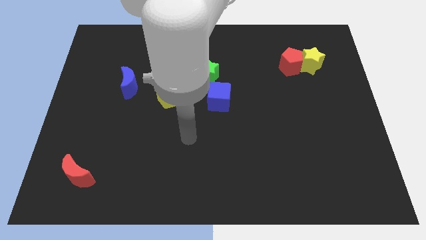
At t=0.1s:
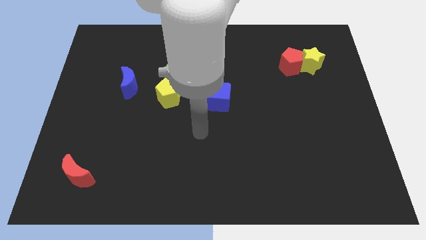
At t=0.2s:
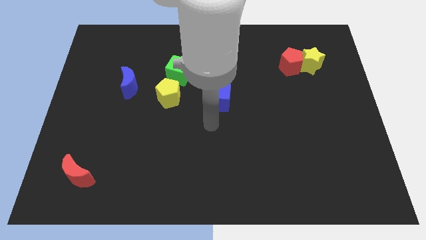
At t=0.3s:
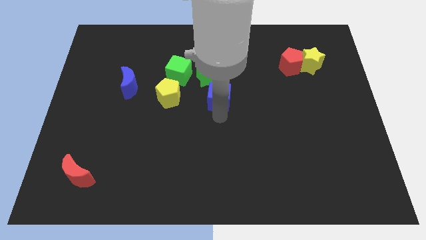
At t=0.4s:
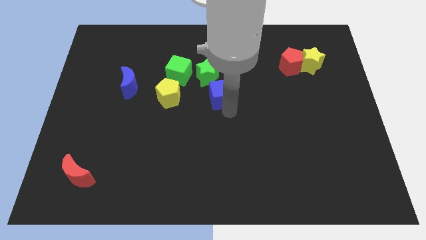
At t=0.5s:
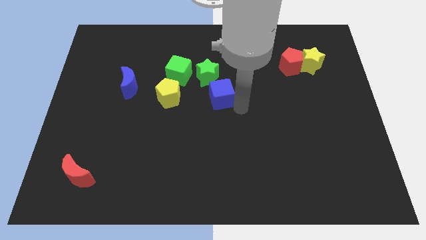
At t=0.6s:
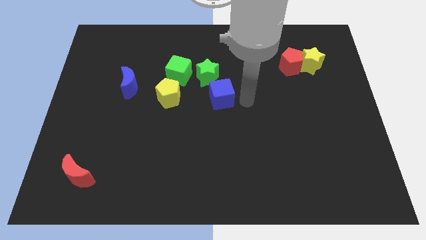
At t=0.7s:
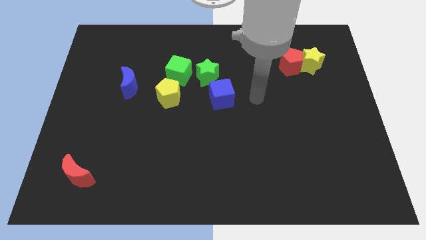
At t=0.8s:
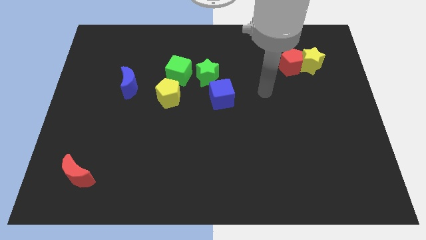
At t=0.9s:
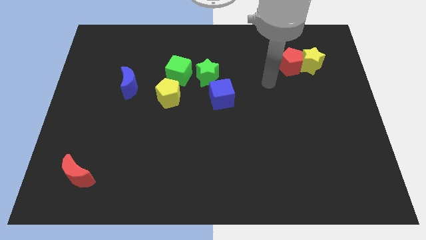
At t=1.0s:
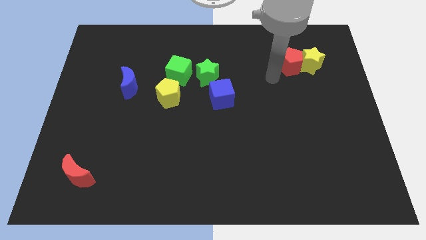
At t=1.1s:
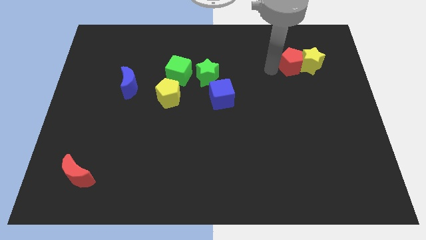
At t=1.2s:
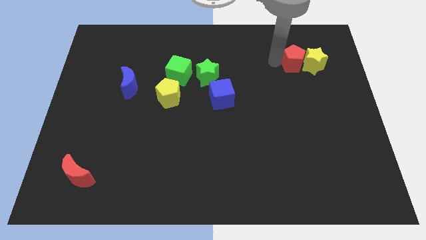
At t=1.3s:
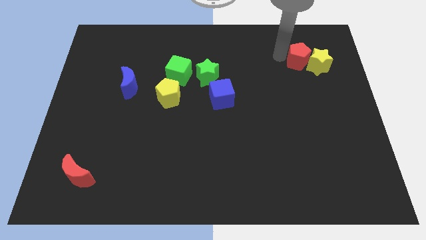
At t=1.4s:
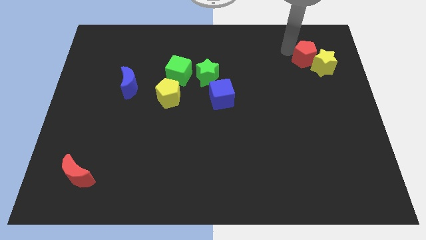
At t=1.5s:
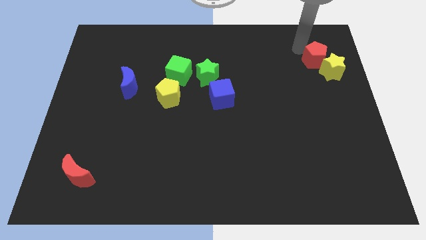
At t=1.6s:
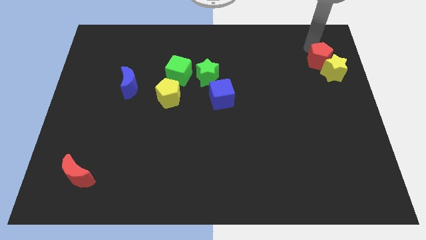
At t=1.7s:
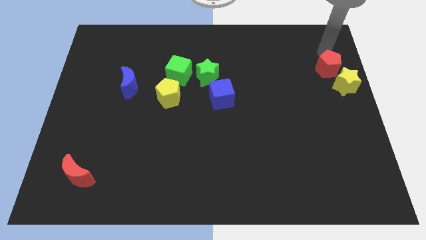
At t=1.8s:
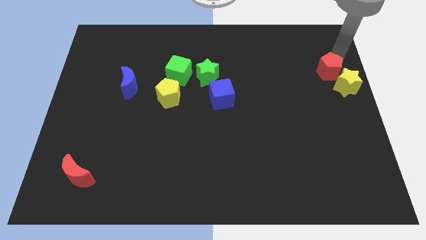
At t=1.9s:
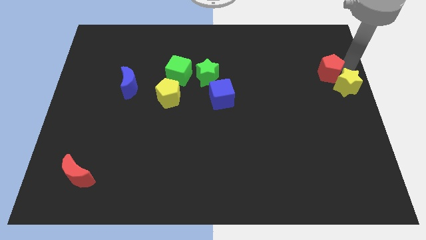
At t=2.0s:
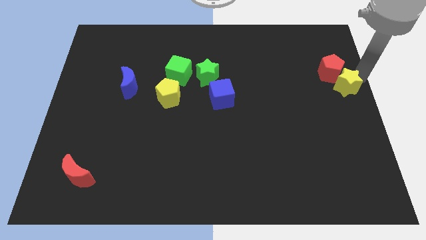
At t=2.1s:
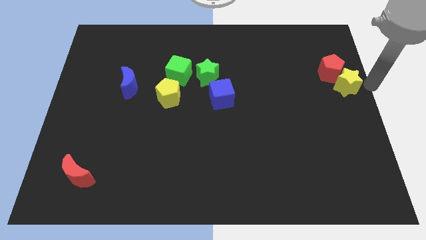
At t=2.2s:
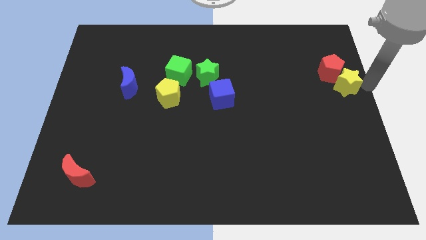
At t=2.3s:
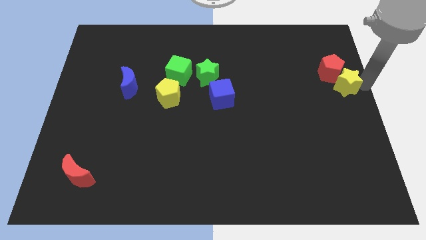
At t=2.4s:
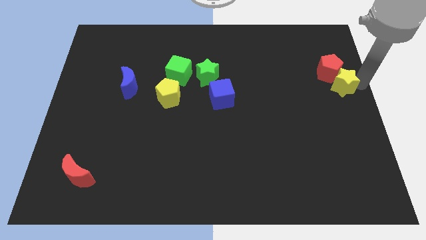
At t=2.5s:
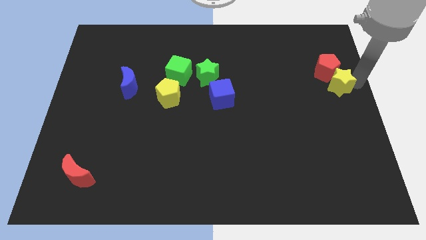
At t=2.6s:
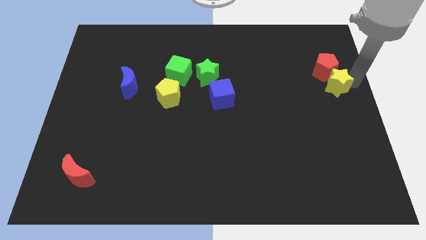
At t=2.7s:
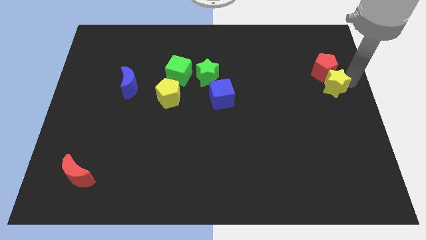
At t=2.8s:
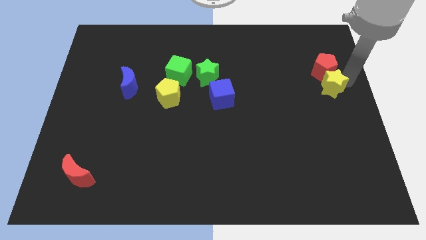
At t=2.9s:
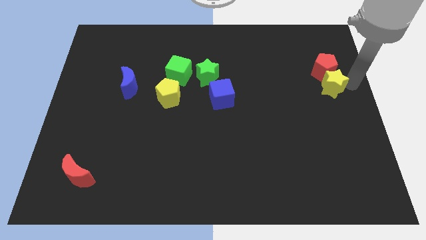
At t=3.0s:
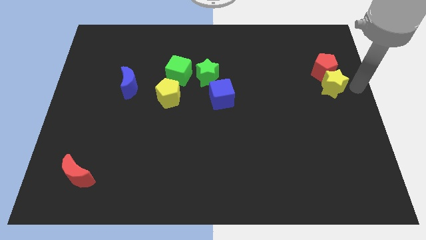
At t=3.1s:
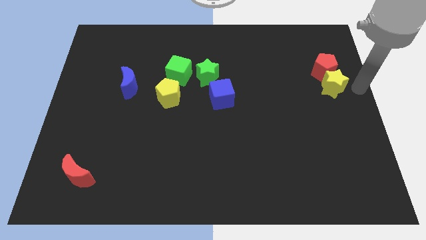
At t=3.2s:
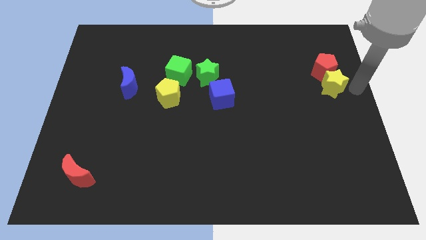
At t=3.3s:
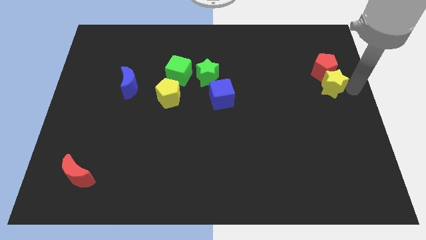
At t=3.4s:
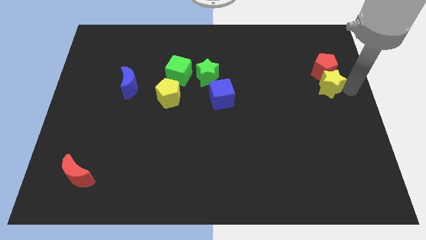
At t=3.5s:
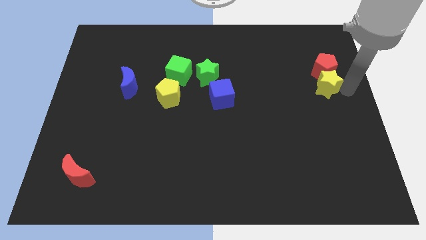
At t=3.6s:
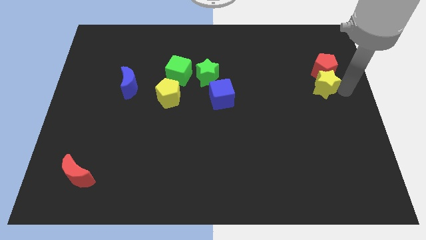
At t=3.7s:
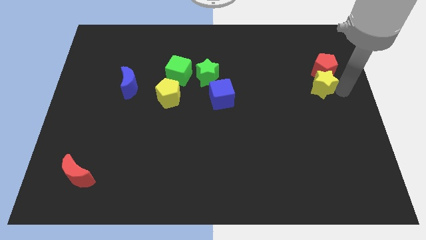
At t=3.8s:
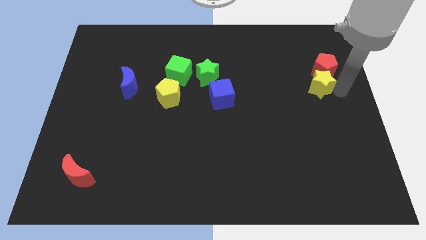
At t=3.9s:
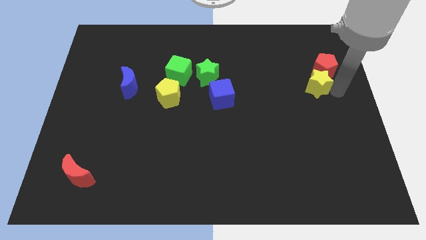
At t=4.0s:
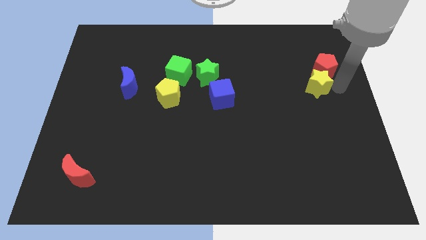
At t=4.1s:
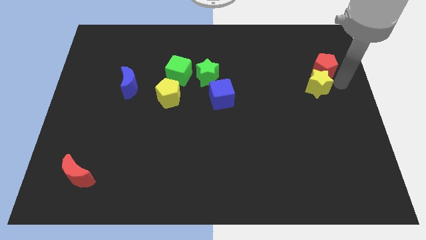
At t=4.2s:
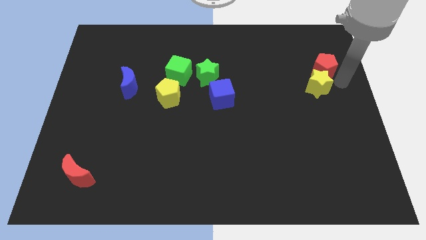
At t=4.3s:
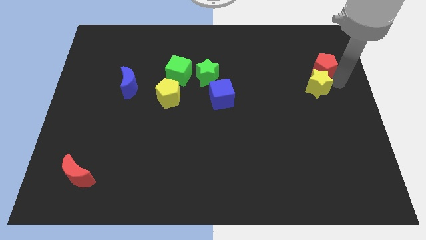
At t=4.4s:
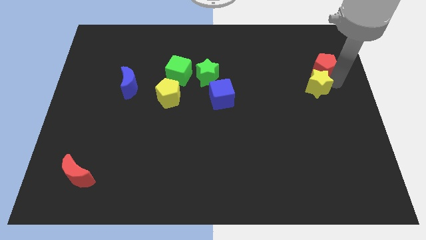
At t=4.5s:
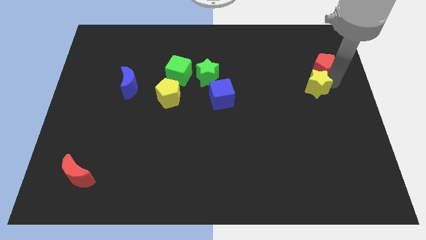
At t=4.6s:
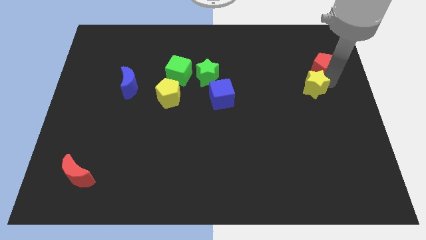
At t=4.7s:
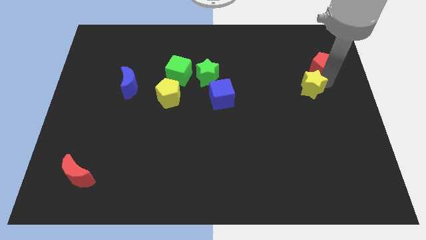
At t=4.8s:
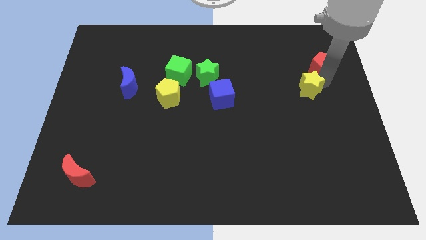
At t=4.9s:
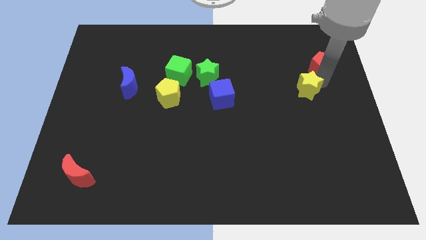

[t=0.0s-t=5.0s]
slide the yellow star a bit down and left

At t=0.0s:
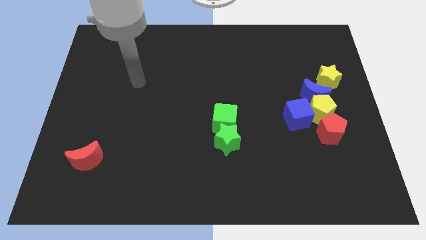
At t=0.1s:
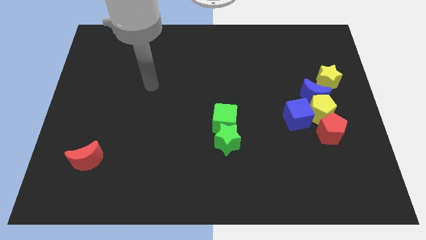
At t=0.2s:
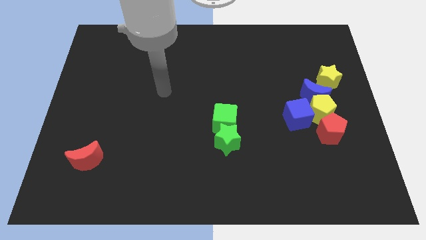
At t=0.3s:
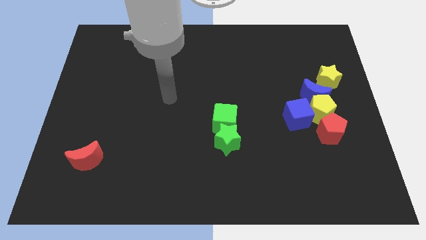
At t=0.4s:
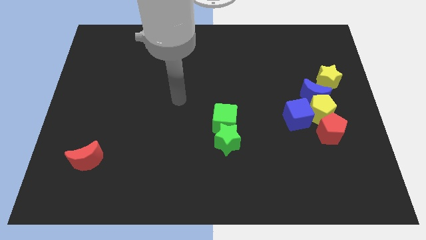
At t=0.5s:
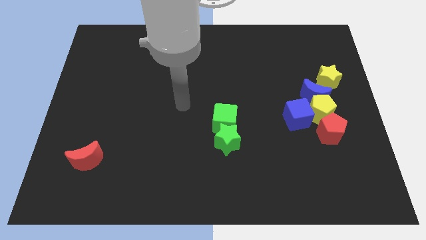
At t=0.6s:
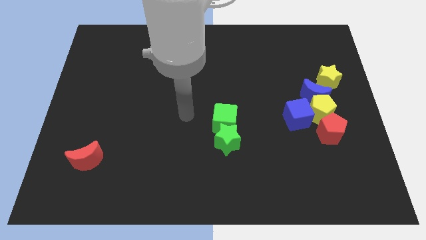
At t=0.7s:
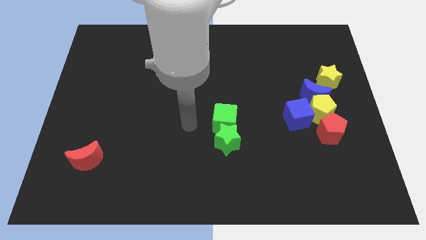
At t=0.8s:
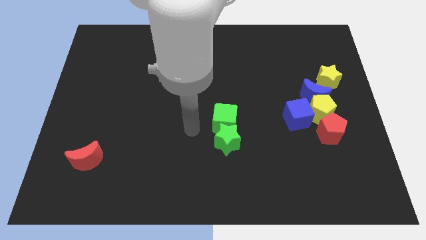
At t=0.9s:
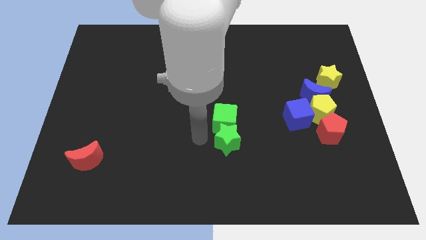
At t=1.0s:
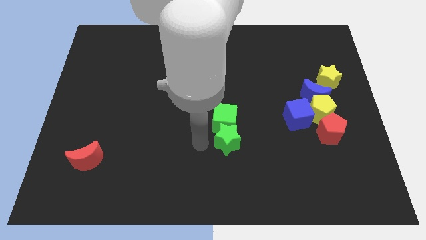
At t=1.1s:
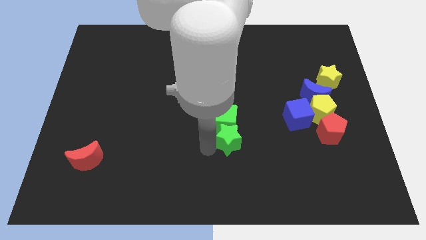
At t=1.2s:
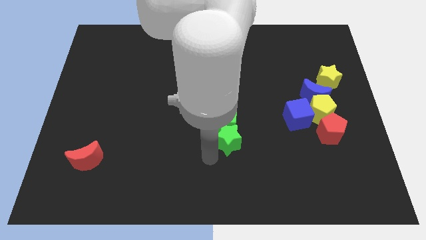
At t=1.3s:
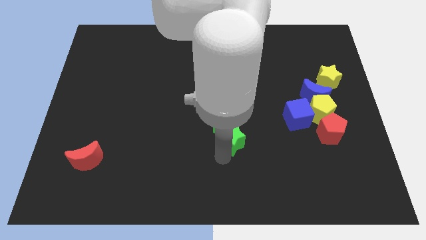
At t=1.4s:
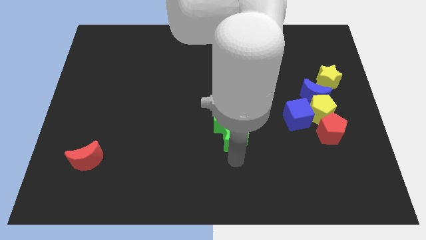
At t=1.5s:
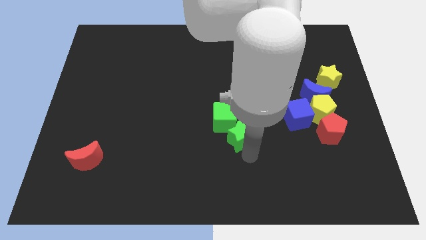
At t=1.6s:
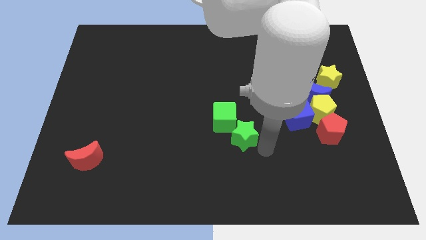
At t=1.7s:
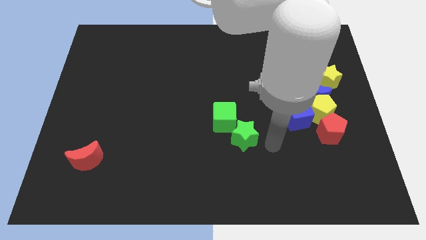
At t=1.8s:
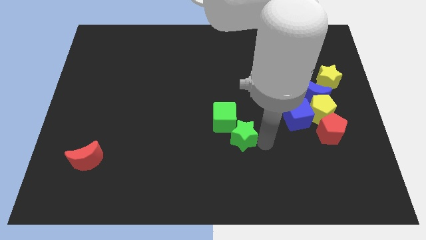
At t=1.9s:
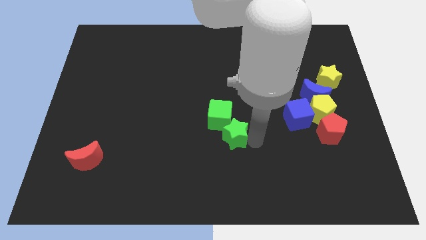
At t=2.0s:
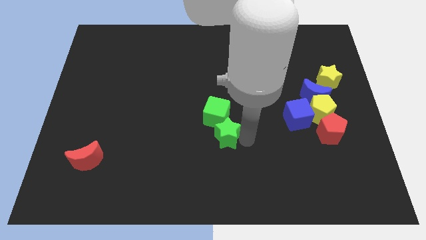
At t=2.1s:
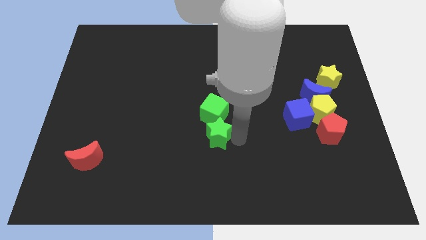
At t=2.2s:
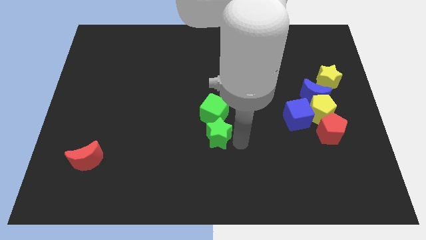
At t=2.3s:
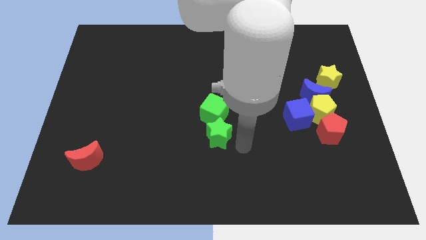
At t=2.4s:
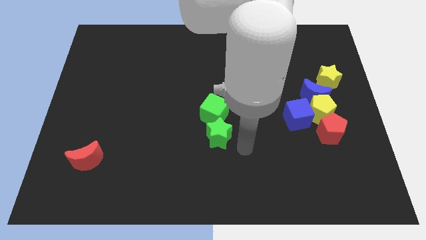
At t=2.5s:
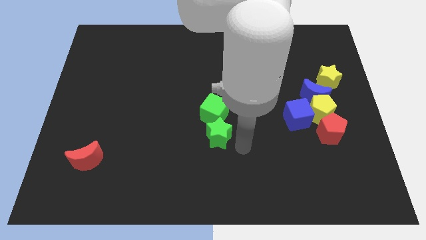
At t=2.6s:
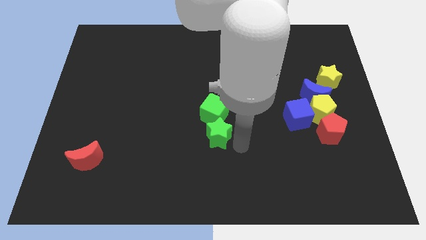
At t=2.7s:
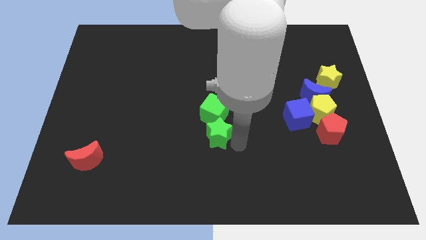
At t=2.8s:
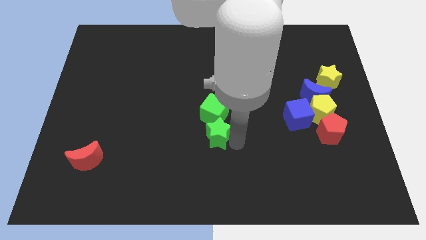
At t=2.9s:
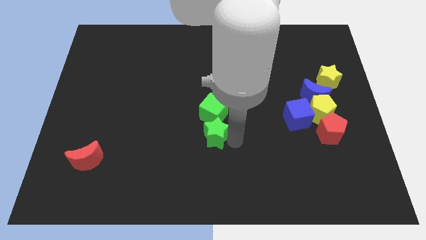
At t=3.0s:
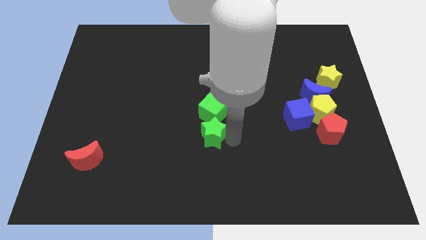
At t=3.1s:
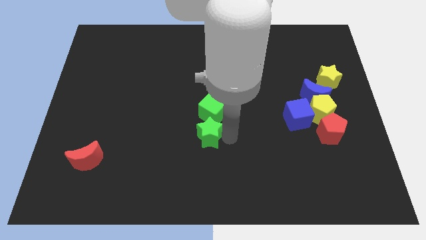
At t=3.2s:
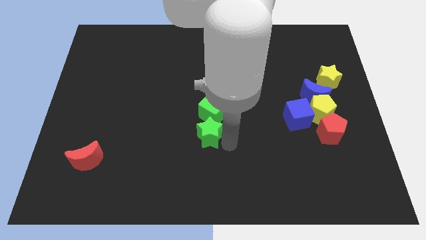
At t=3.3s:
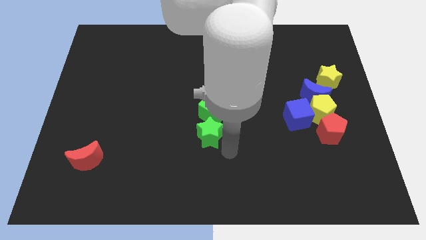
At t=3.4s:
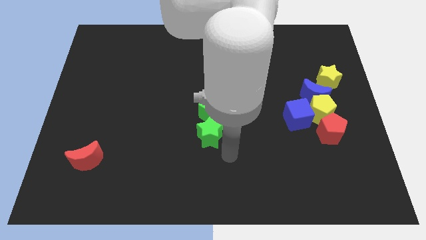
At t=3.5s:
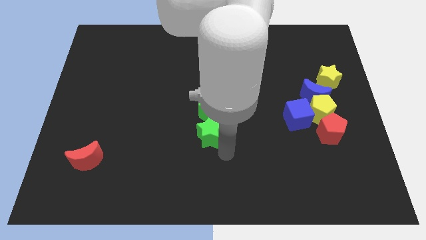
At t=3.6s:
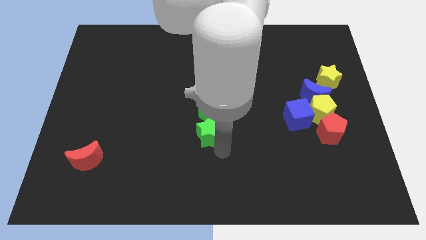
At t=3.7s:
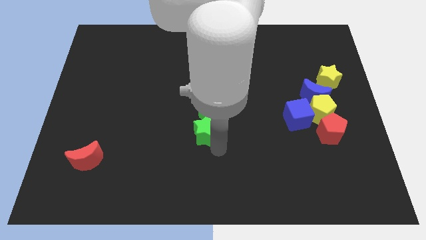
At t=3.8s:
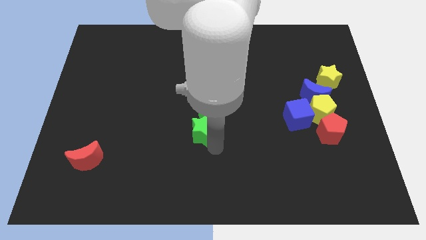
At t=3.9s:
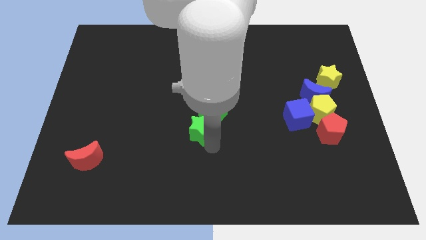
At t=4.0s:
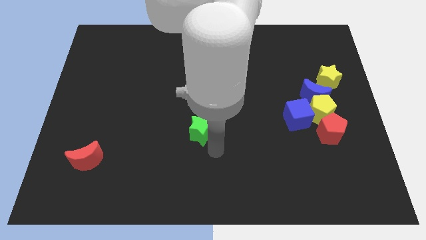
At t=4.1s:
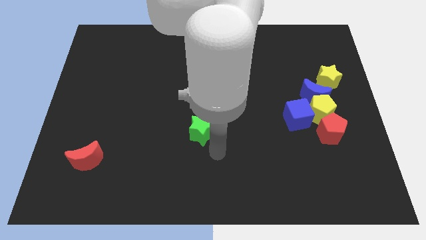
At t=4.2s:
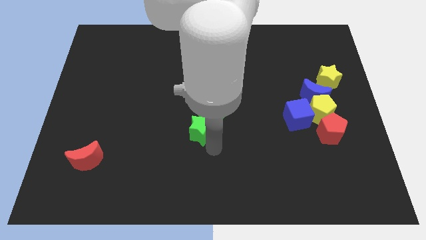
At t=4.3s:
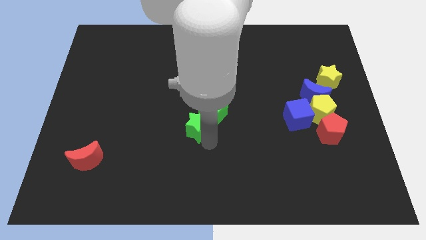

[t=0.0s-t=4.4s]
slide the green star up and left a bit
